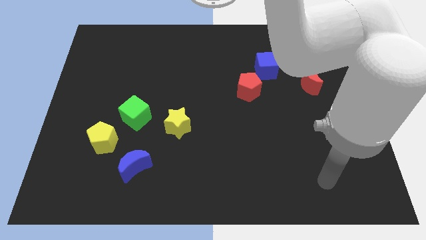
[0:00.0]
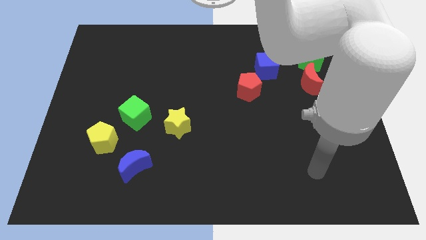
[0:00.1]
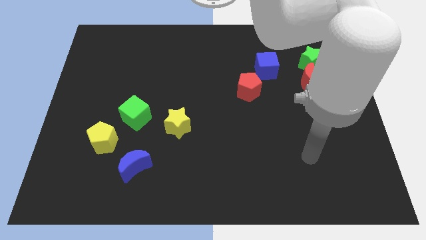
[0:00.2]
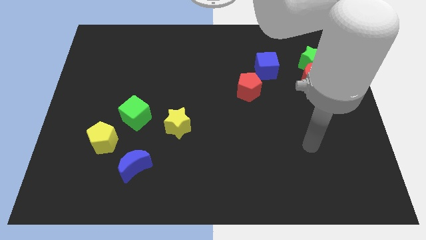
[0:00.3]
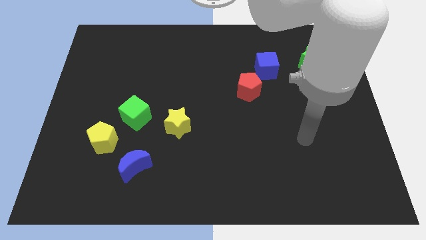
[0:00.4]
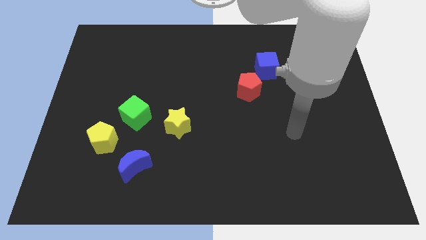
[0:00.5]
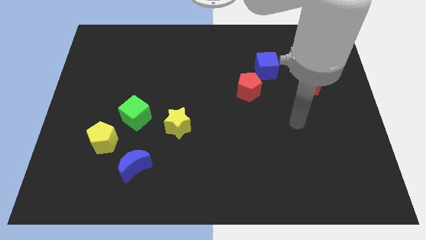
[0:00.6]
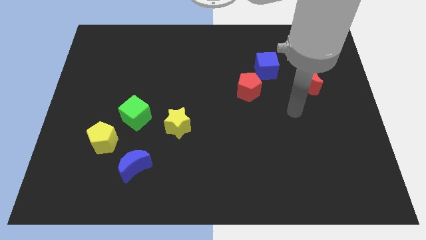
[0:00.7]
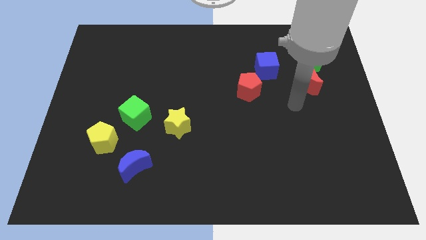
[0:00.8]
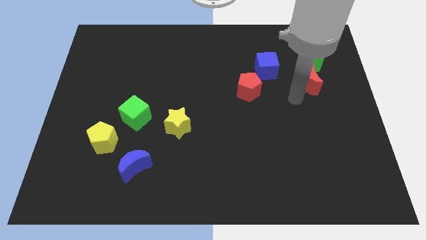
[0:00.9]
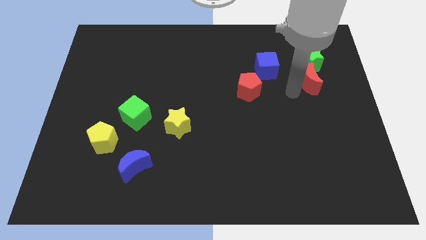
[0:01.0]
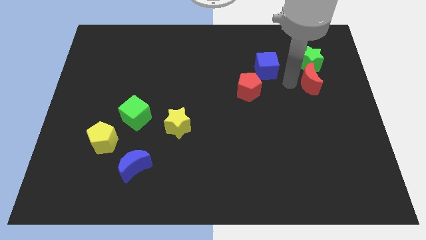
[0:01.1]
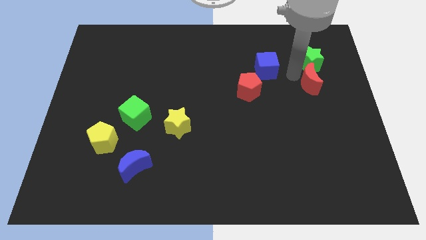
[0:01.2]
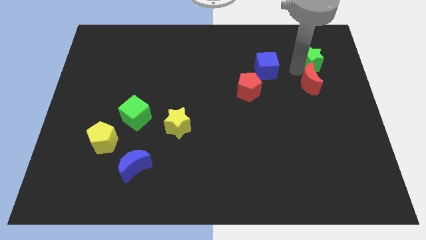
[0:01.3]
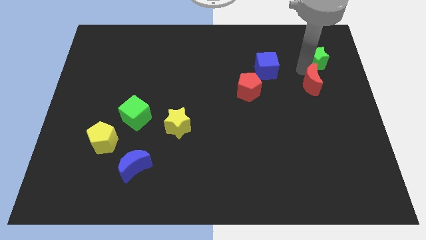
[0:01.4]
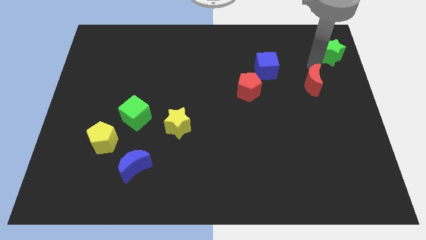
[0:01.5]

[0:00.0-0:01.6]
move the red moon away from the green star

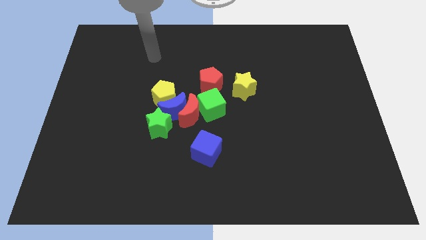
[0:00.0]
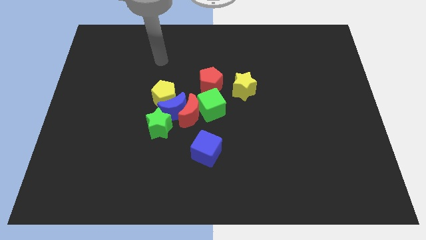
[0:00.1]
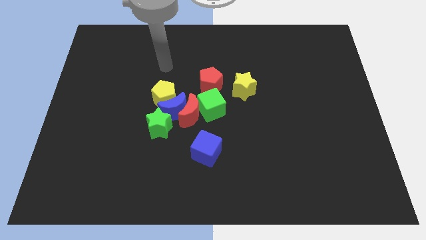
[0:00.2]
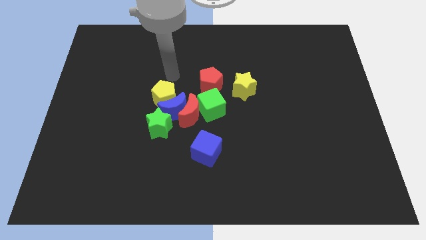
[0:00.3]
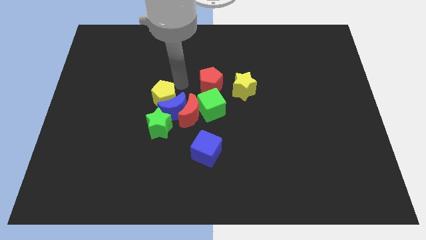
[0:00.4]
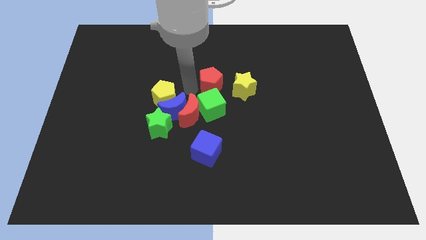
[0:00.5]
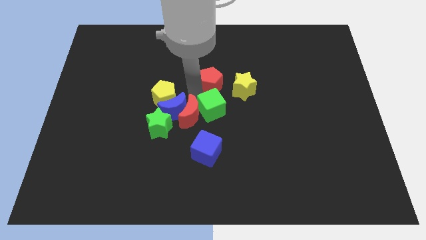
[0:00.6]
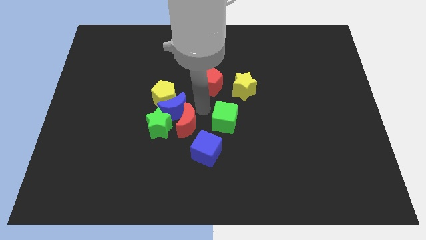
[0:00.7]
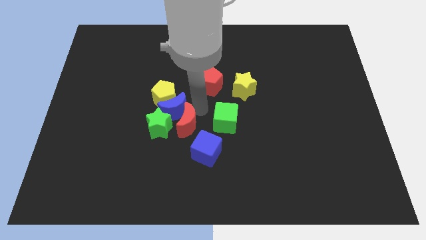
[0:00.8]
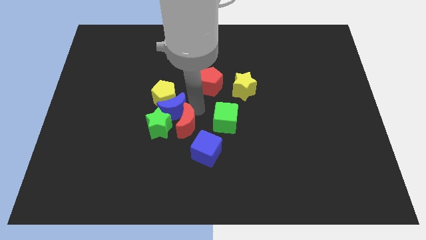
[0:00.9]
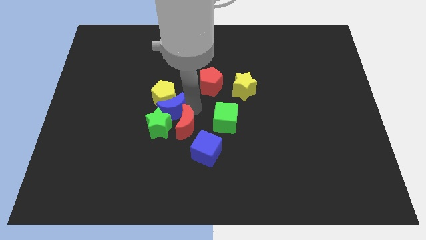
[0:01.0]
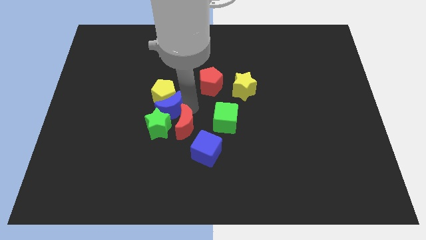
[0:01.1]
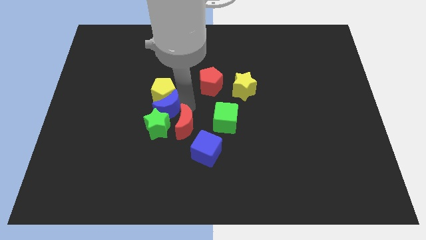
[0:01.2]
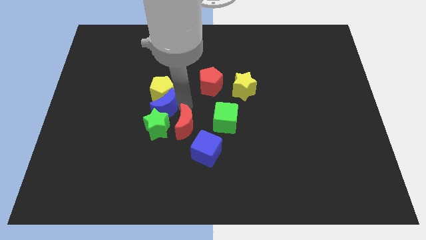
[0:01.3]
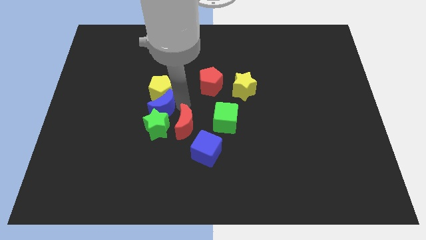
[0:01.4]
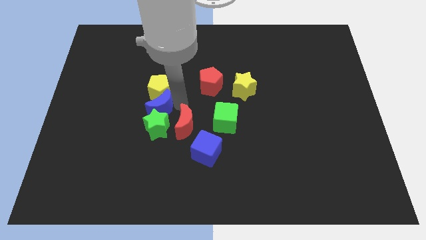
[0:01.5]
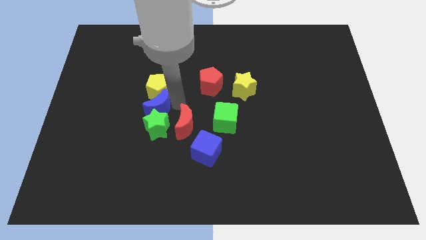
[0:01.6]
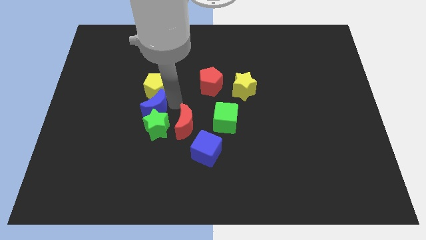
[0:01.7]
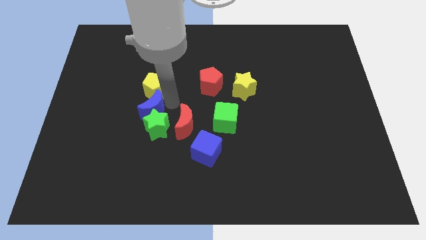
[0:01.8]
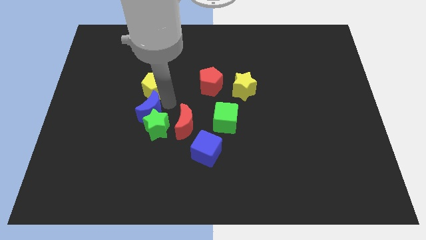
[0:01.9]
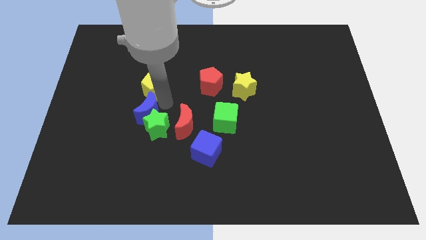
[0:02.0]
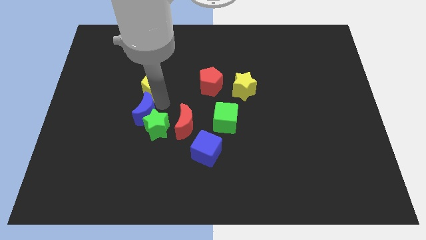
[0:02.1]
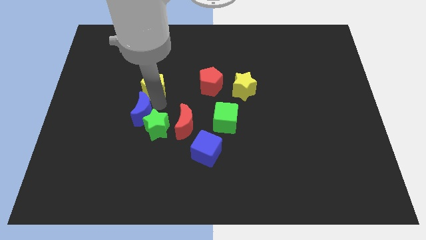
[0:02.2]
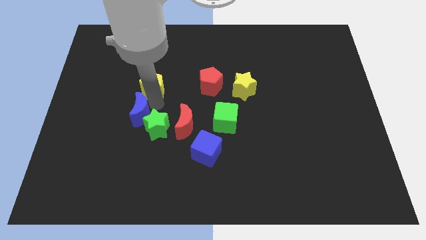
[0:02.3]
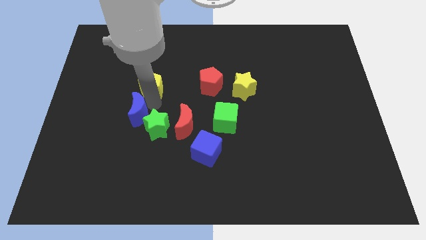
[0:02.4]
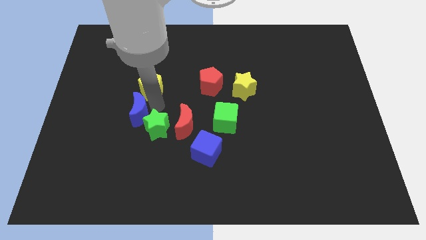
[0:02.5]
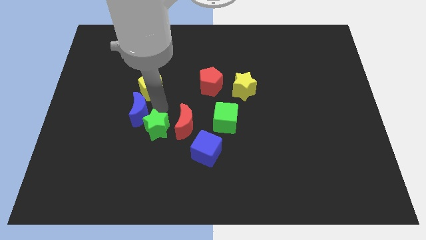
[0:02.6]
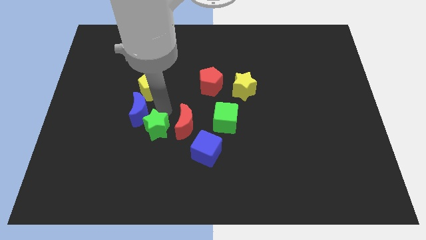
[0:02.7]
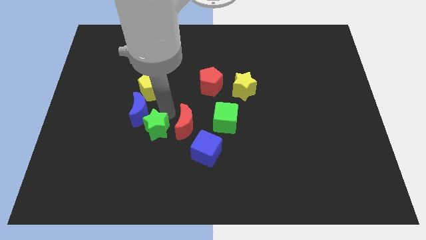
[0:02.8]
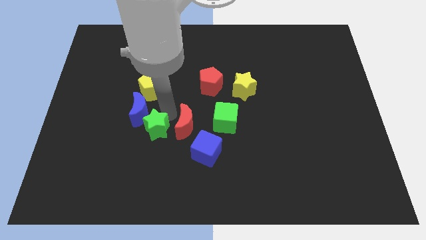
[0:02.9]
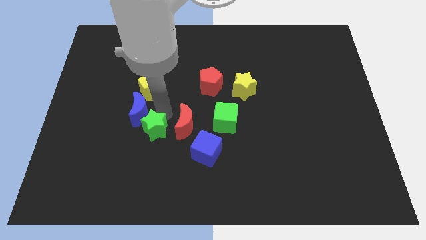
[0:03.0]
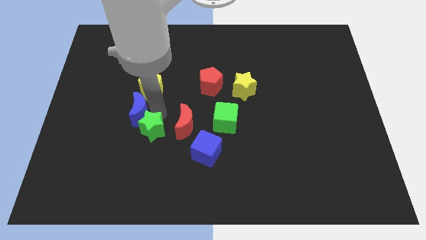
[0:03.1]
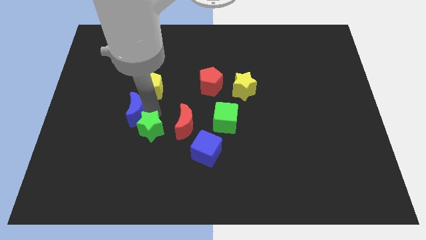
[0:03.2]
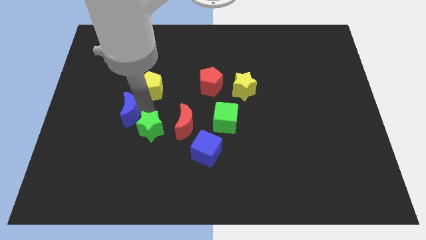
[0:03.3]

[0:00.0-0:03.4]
move the blue moon away from the group of blocks

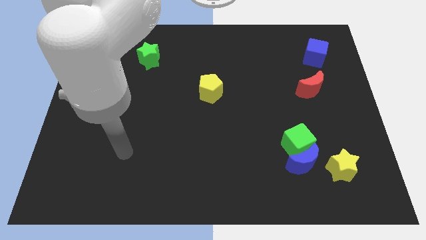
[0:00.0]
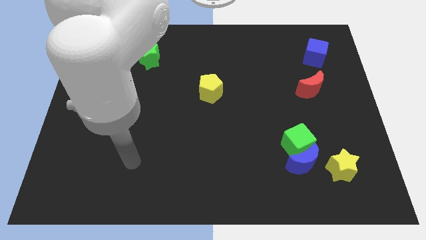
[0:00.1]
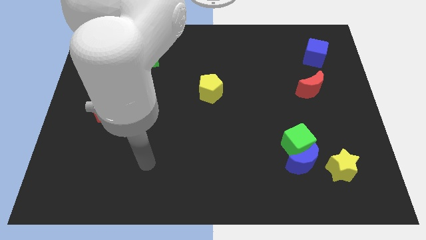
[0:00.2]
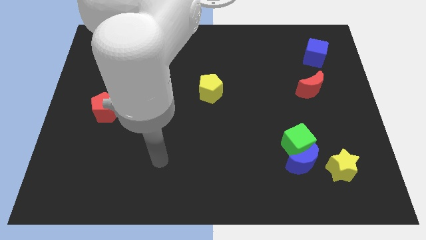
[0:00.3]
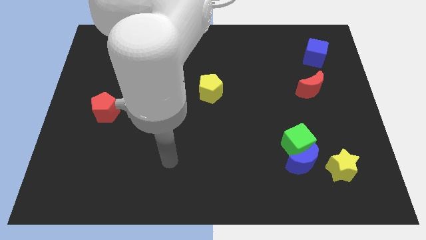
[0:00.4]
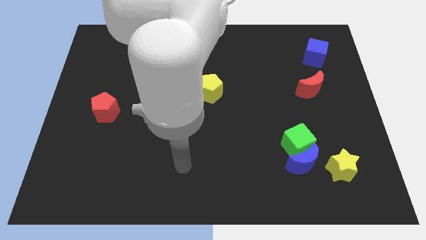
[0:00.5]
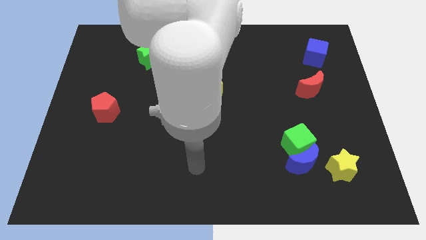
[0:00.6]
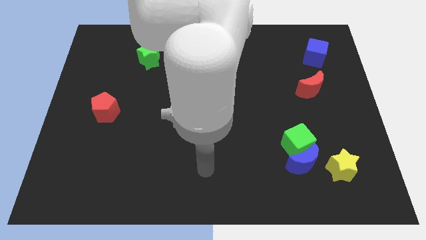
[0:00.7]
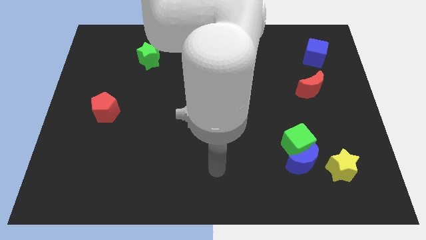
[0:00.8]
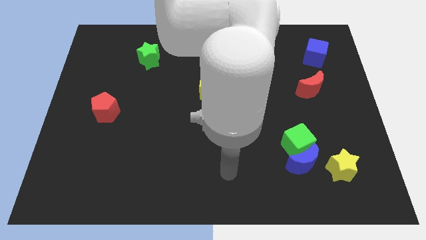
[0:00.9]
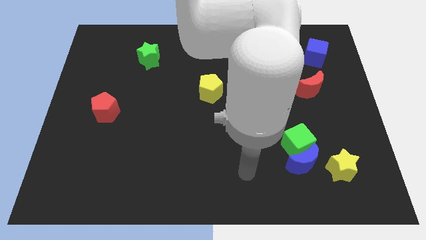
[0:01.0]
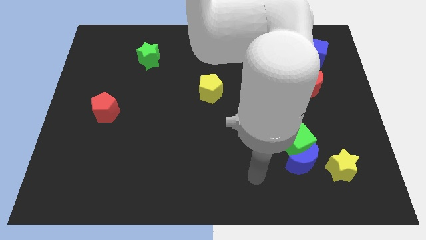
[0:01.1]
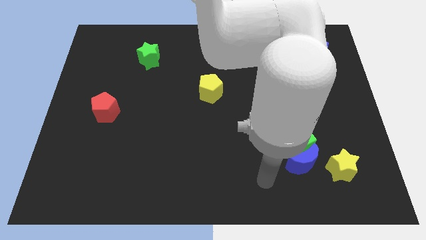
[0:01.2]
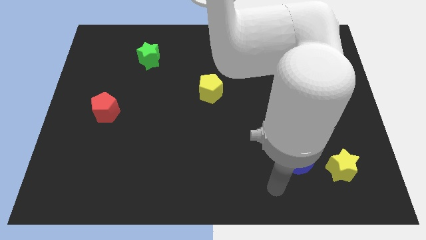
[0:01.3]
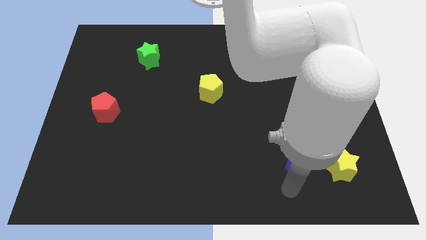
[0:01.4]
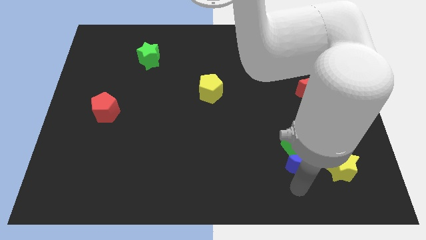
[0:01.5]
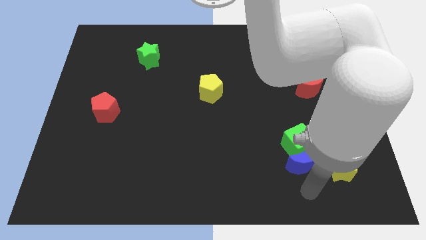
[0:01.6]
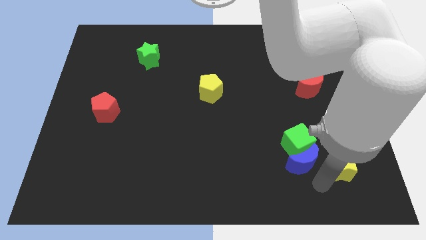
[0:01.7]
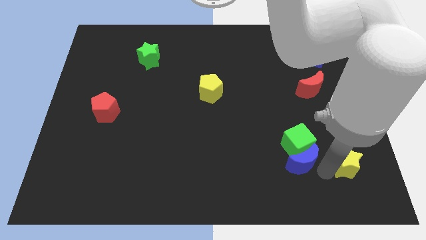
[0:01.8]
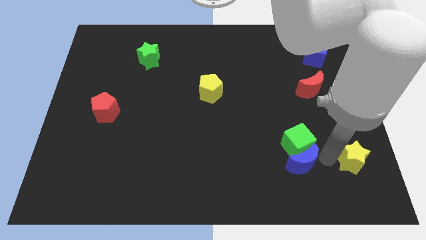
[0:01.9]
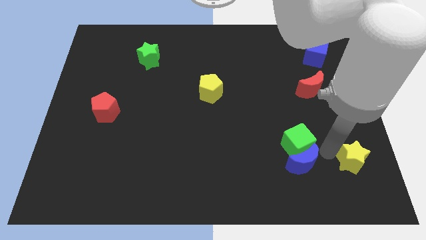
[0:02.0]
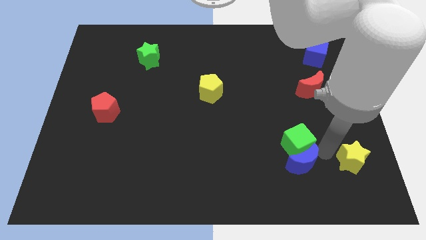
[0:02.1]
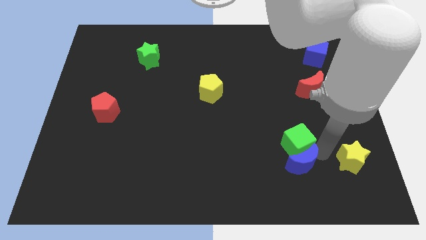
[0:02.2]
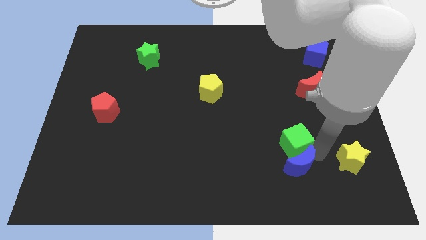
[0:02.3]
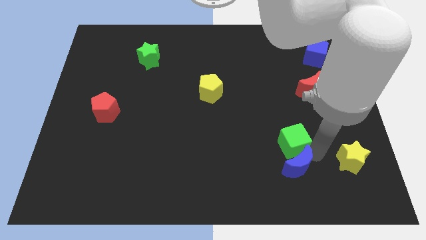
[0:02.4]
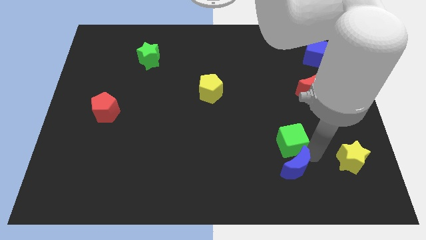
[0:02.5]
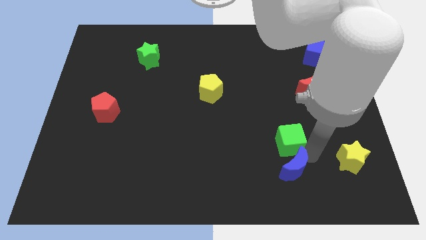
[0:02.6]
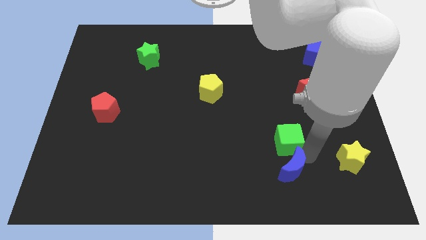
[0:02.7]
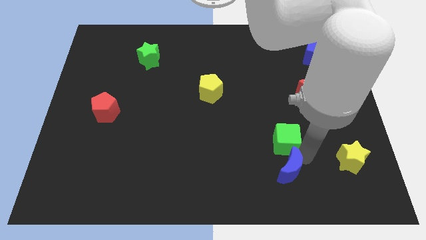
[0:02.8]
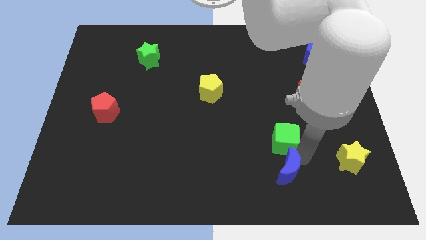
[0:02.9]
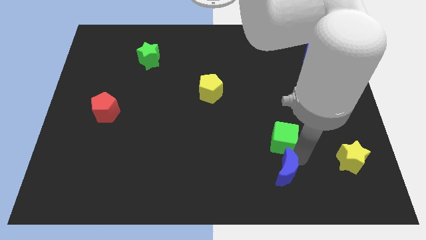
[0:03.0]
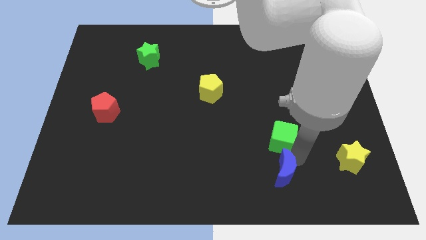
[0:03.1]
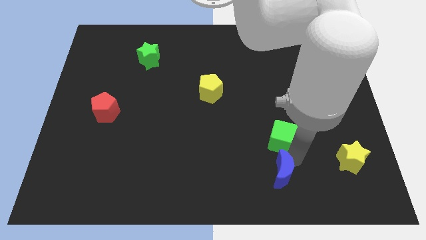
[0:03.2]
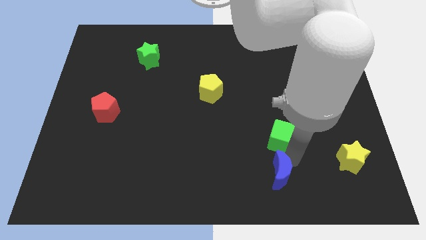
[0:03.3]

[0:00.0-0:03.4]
separate the blue moon from the green cube and yellow star

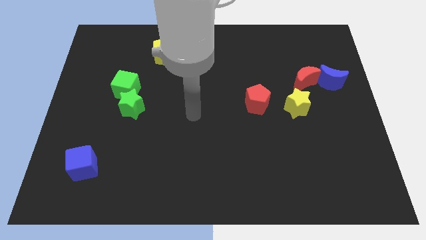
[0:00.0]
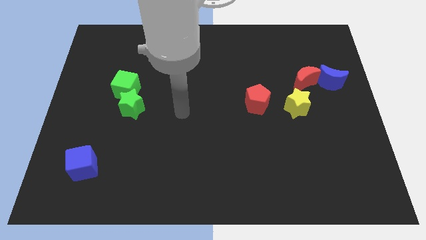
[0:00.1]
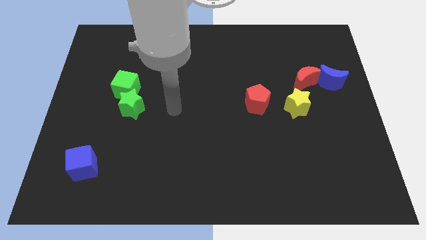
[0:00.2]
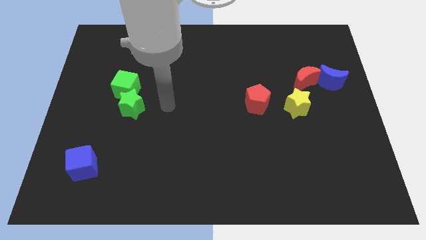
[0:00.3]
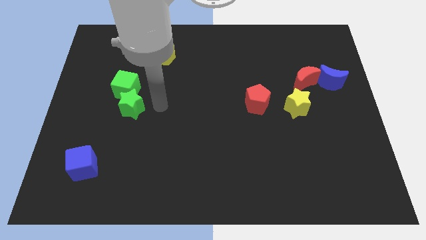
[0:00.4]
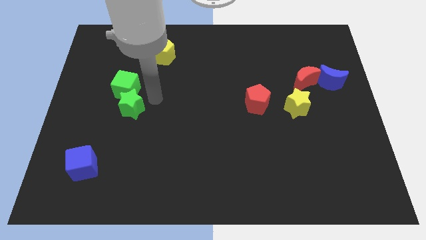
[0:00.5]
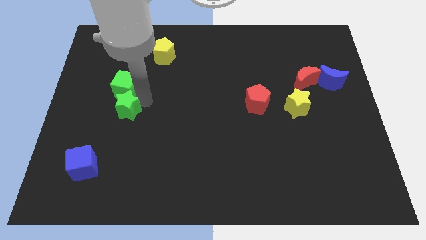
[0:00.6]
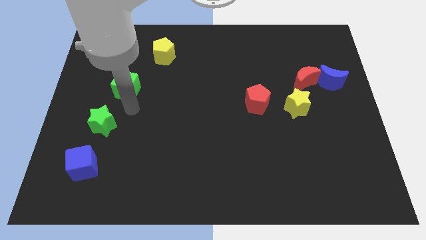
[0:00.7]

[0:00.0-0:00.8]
move the green cube away from the green star

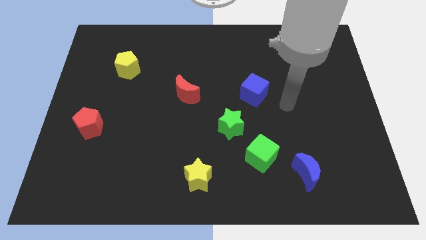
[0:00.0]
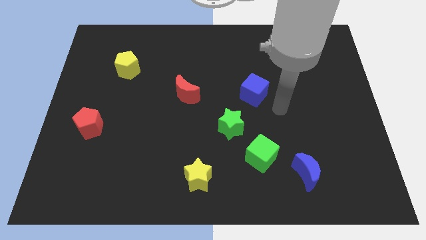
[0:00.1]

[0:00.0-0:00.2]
separate the green star from the green cube
